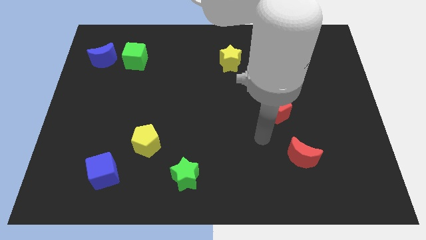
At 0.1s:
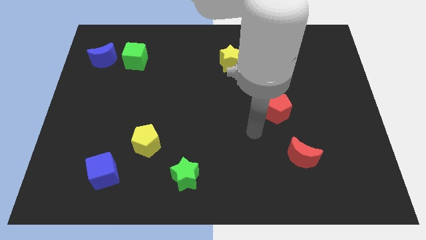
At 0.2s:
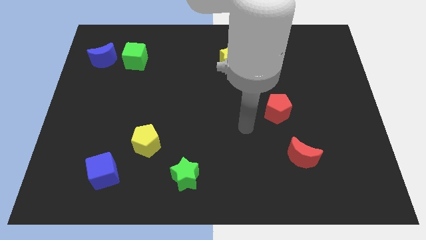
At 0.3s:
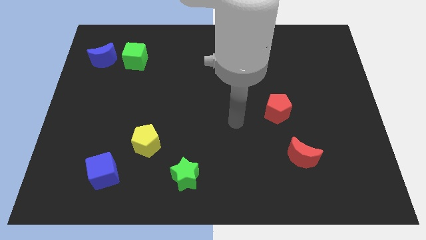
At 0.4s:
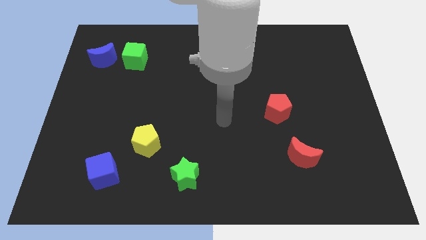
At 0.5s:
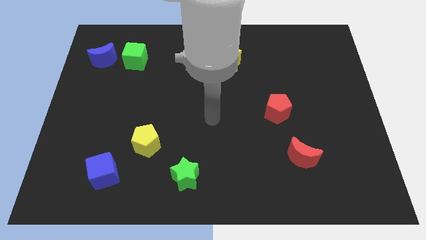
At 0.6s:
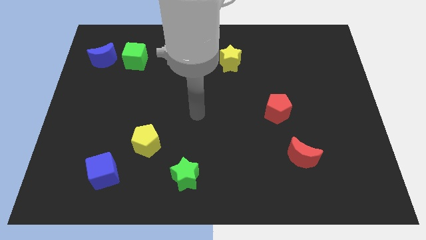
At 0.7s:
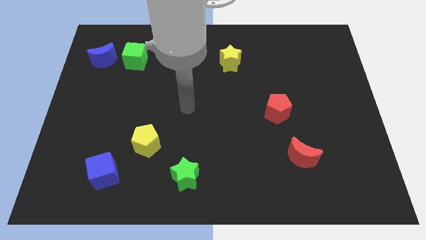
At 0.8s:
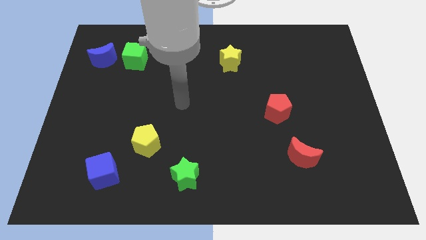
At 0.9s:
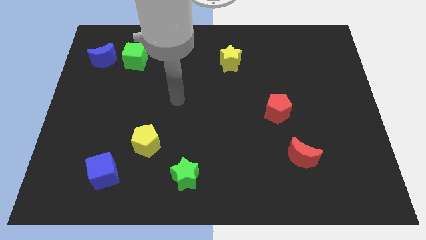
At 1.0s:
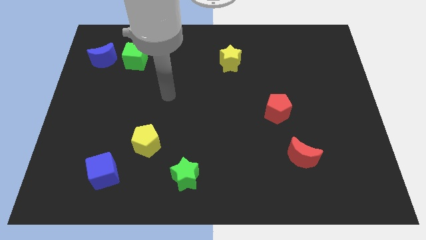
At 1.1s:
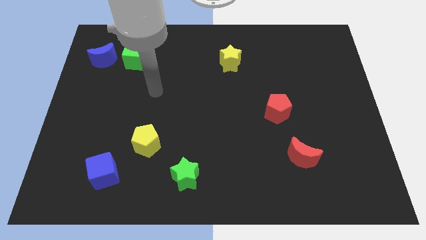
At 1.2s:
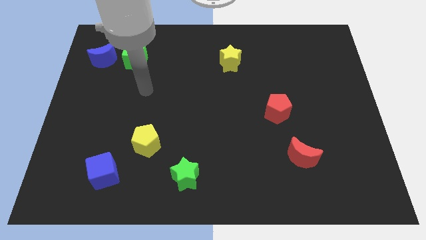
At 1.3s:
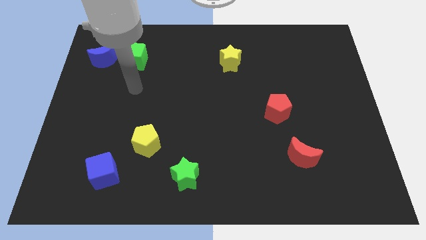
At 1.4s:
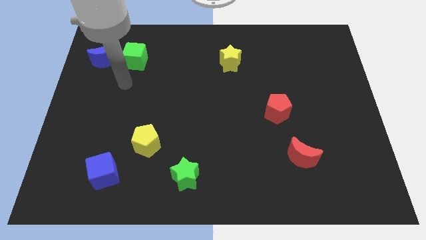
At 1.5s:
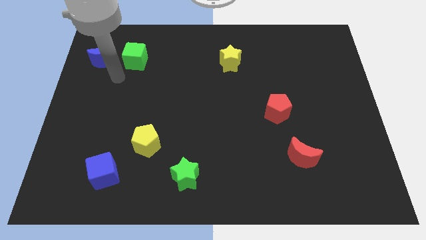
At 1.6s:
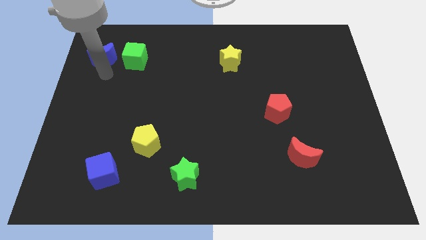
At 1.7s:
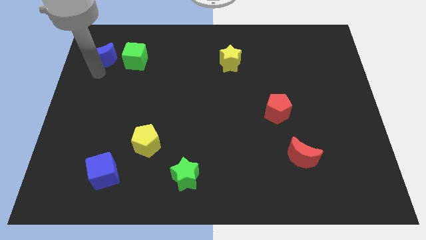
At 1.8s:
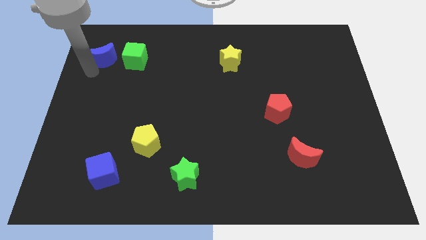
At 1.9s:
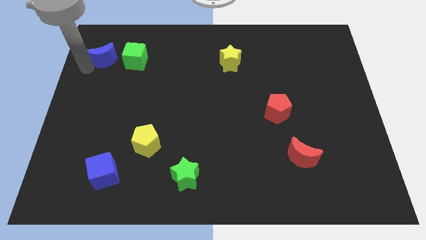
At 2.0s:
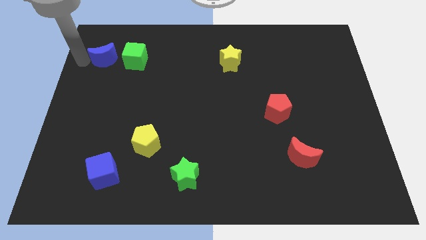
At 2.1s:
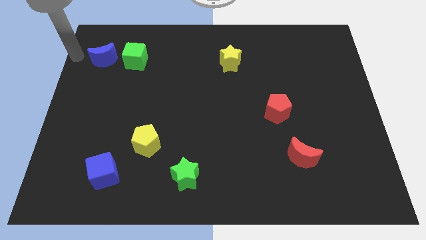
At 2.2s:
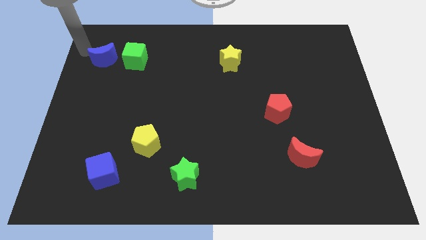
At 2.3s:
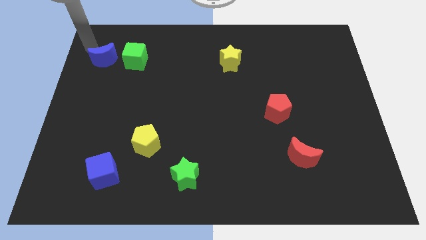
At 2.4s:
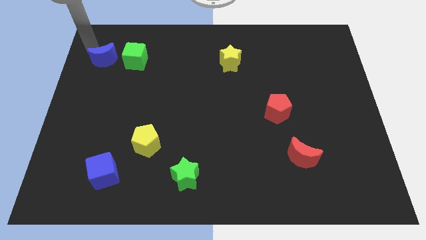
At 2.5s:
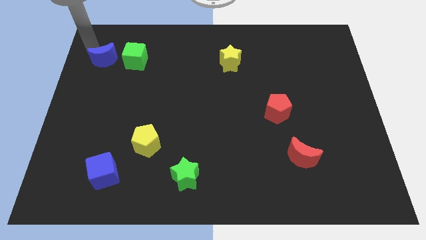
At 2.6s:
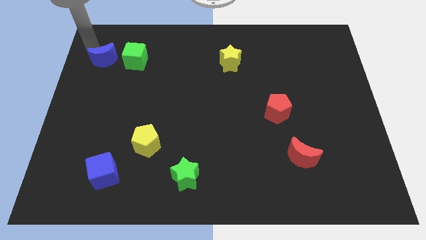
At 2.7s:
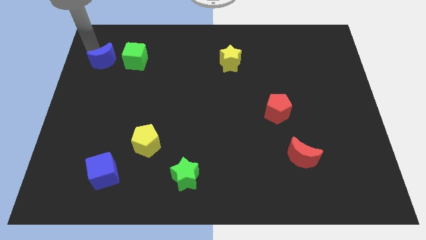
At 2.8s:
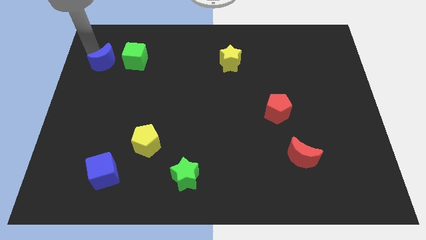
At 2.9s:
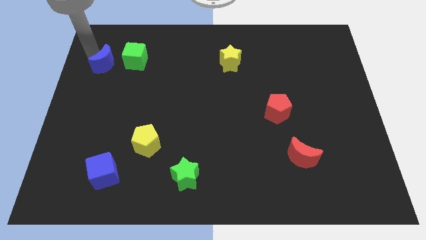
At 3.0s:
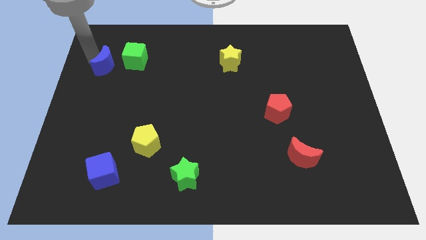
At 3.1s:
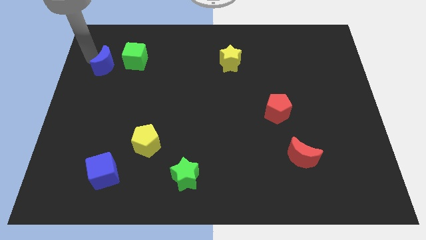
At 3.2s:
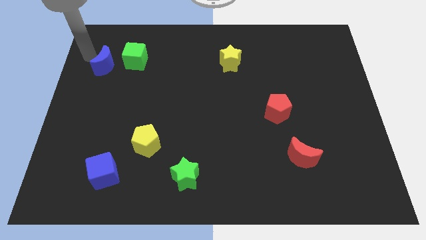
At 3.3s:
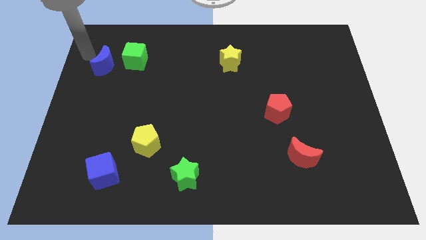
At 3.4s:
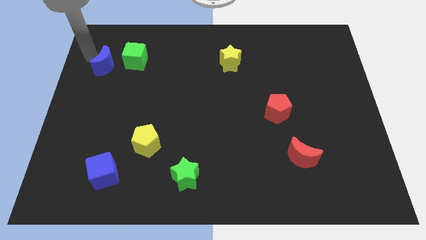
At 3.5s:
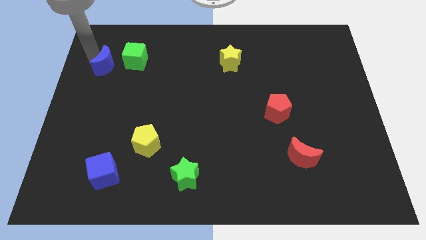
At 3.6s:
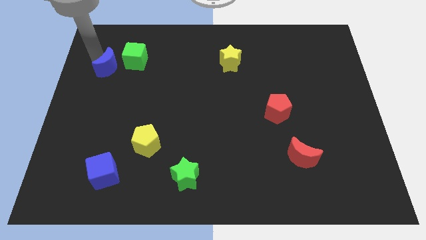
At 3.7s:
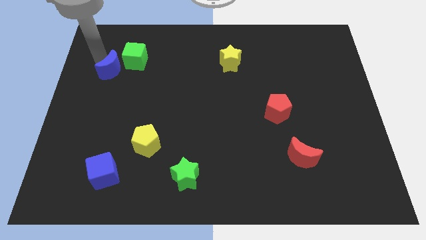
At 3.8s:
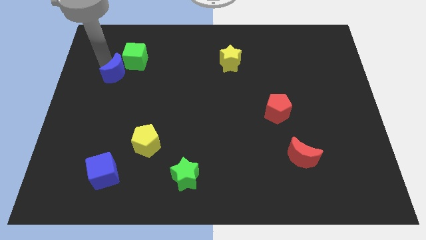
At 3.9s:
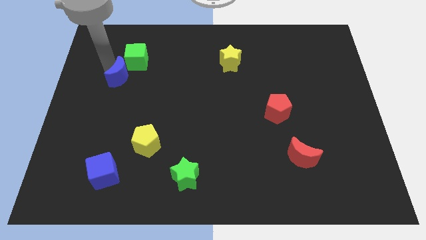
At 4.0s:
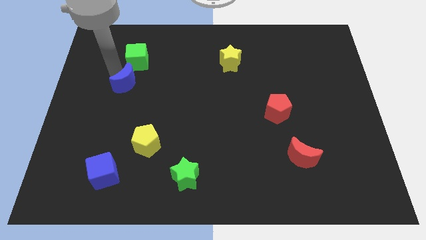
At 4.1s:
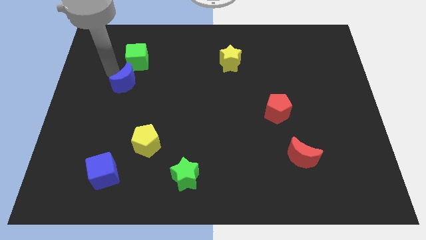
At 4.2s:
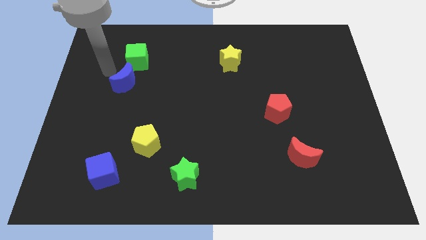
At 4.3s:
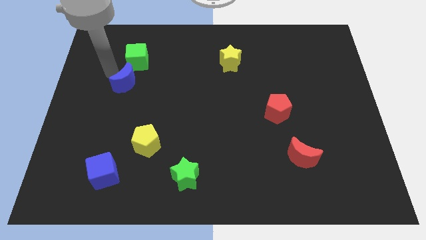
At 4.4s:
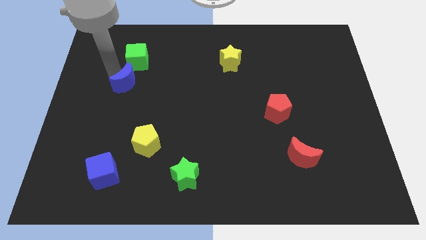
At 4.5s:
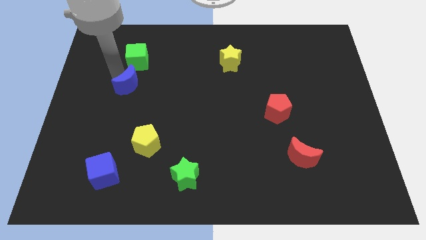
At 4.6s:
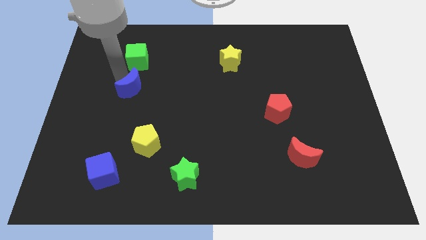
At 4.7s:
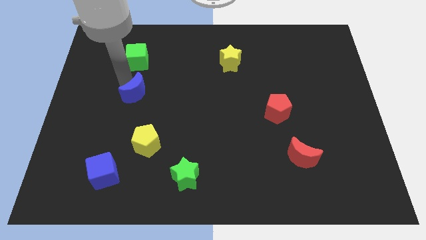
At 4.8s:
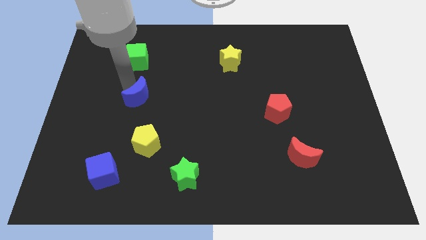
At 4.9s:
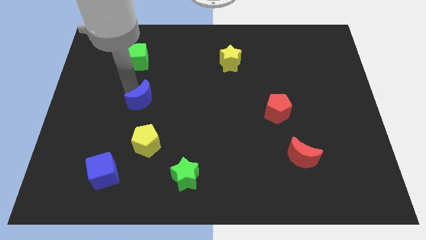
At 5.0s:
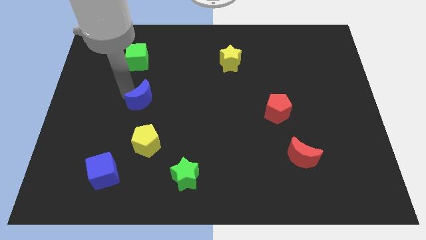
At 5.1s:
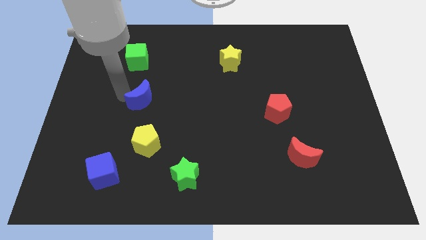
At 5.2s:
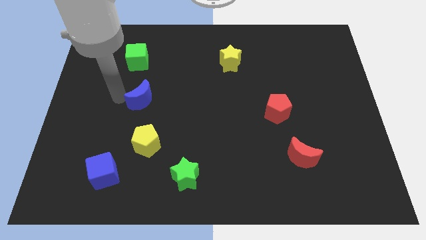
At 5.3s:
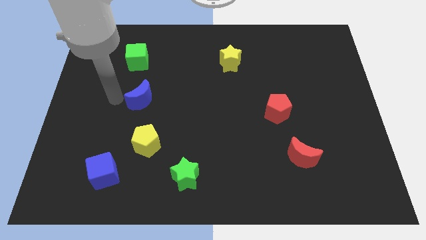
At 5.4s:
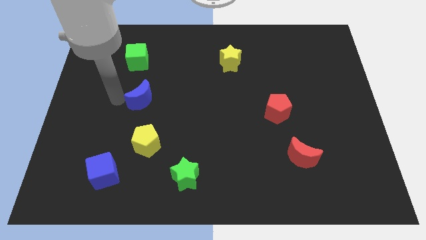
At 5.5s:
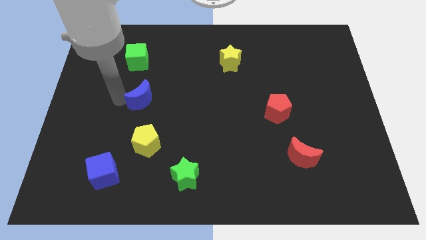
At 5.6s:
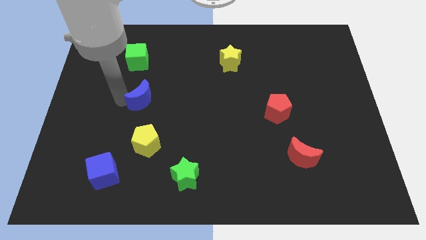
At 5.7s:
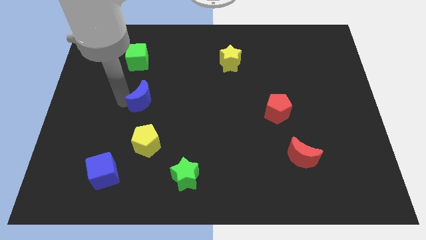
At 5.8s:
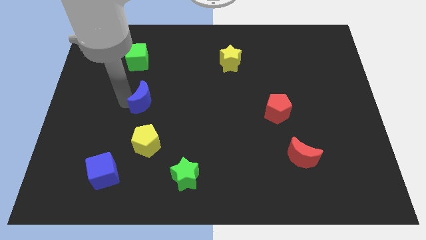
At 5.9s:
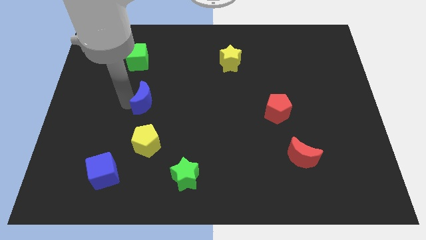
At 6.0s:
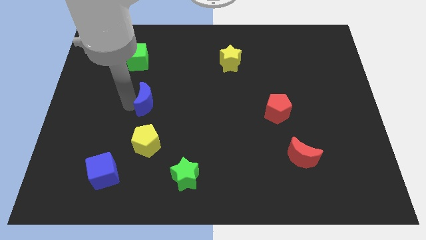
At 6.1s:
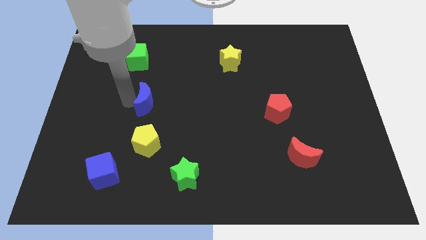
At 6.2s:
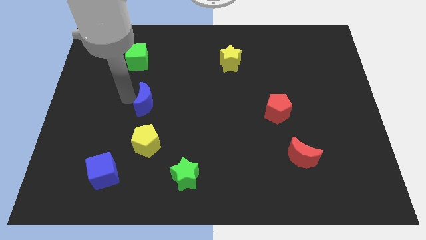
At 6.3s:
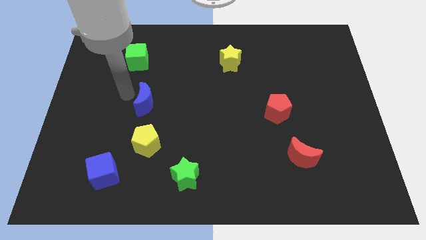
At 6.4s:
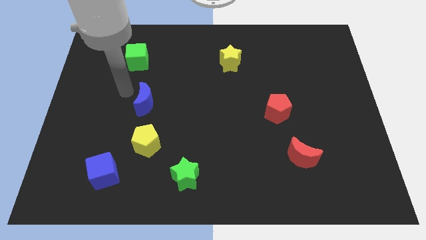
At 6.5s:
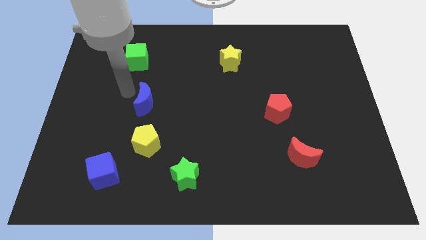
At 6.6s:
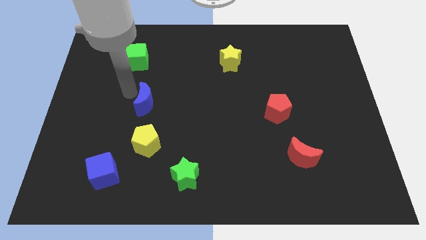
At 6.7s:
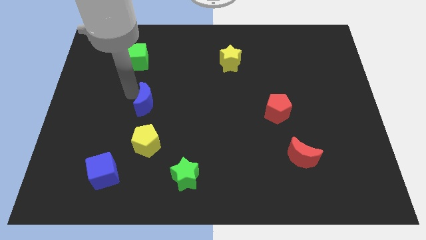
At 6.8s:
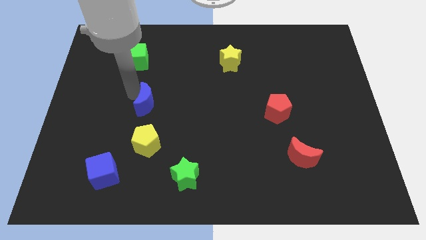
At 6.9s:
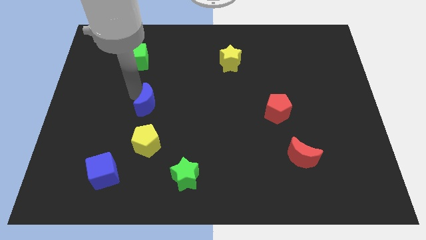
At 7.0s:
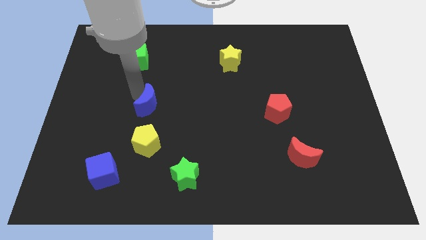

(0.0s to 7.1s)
slide the blue moon down and then to the right

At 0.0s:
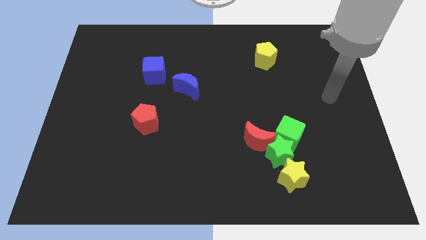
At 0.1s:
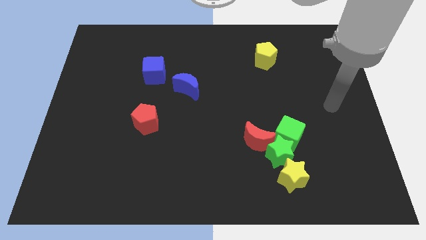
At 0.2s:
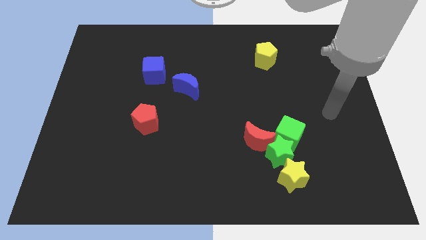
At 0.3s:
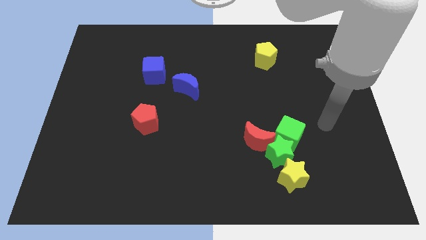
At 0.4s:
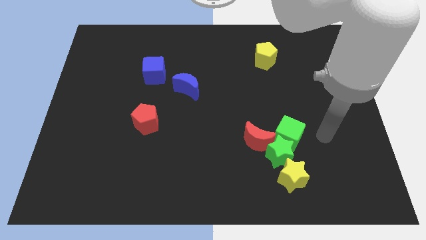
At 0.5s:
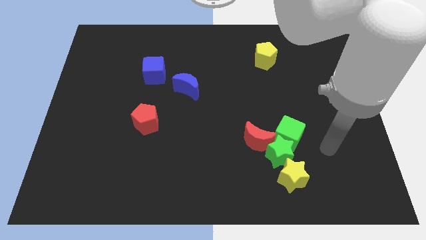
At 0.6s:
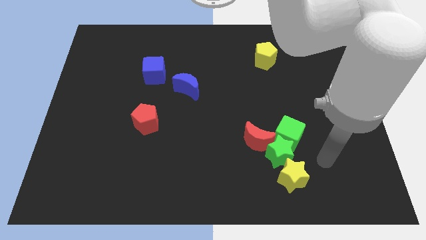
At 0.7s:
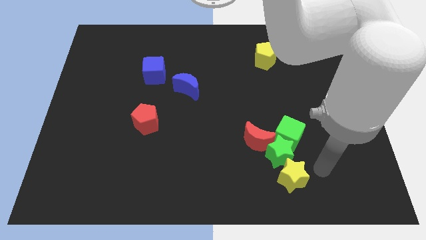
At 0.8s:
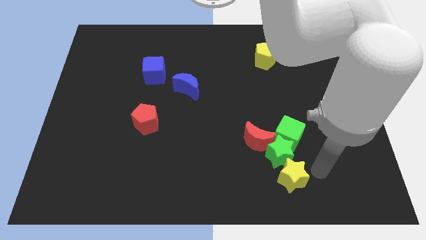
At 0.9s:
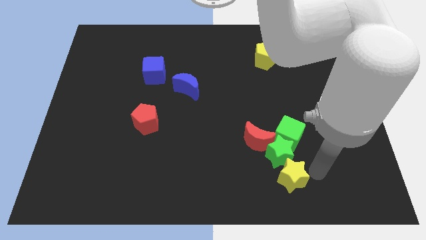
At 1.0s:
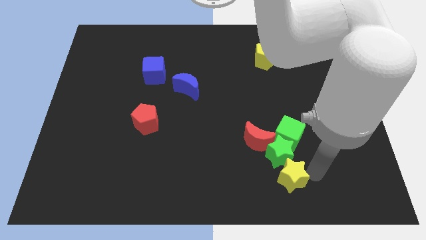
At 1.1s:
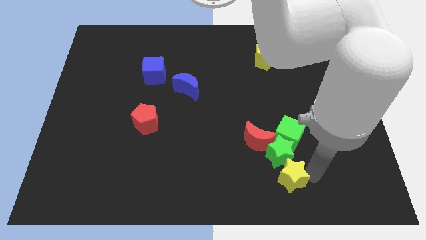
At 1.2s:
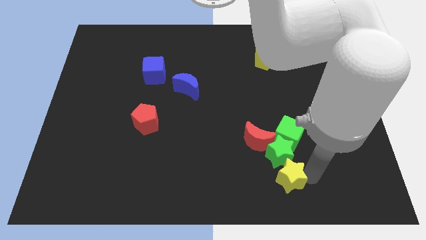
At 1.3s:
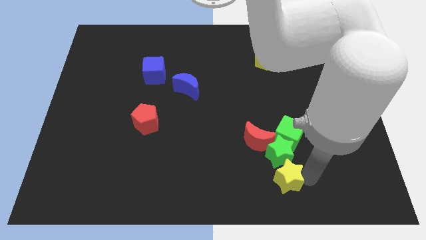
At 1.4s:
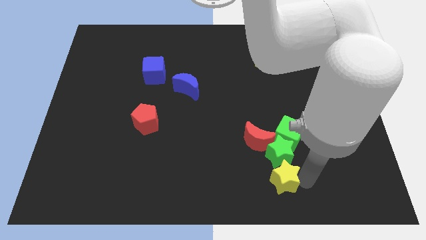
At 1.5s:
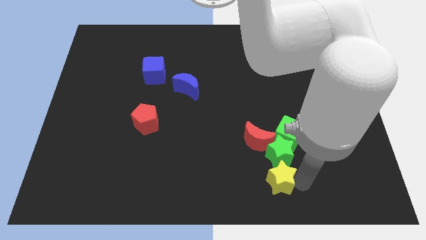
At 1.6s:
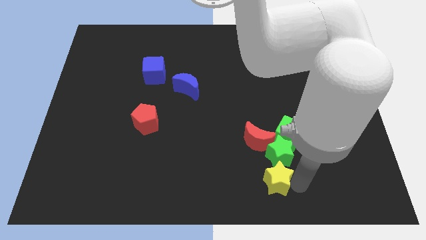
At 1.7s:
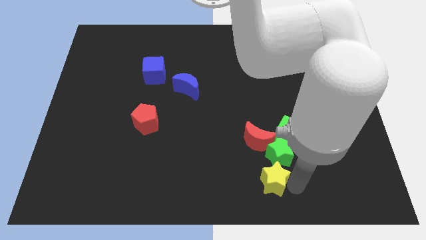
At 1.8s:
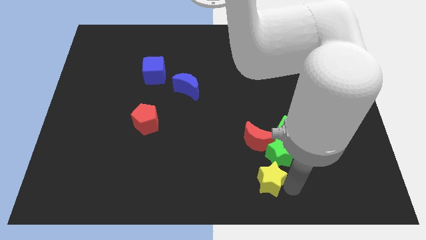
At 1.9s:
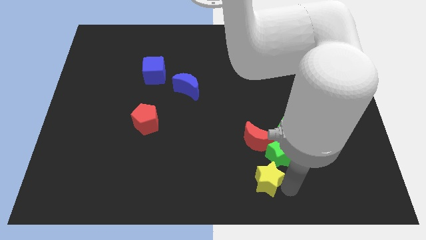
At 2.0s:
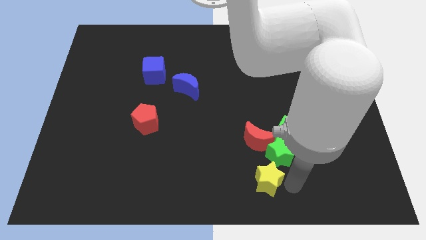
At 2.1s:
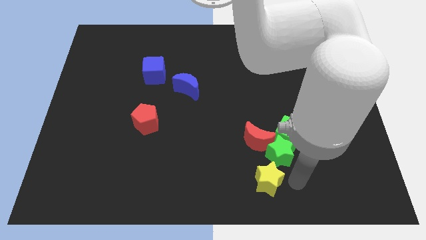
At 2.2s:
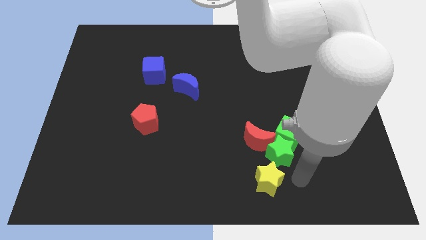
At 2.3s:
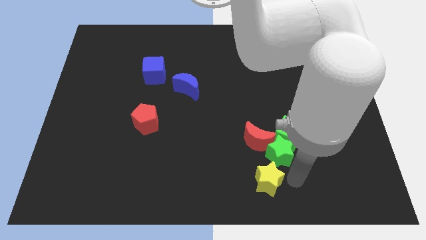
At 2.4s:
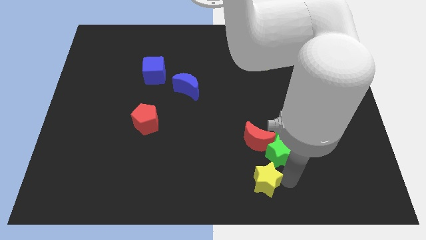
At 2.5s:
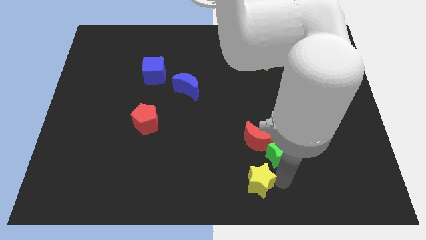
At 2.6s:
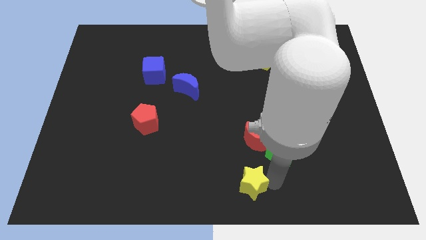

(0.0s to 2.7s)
push the yellow star somewhat to the left
